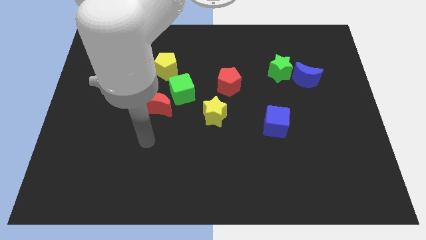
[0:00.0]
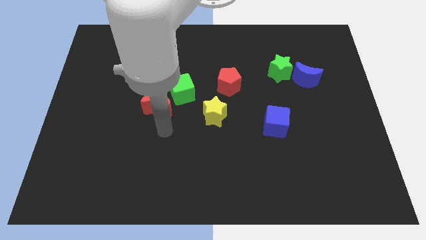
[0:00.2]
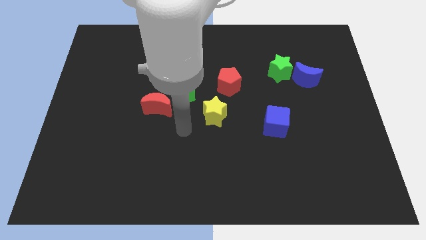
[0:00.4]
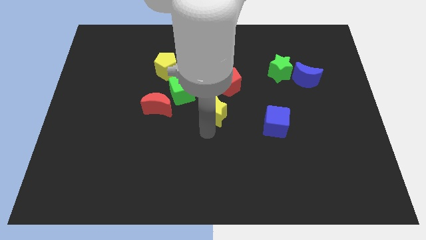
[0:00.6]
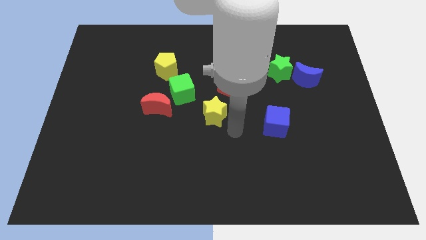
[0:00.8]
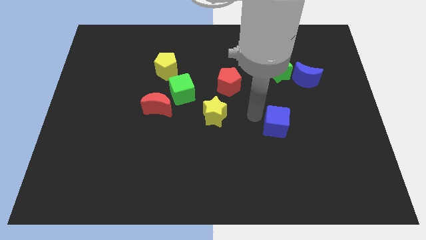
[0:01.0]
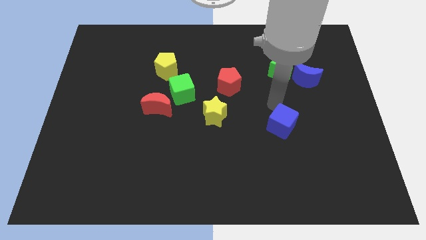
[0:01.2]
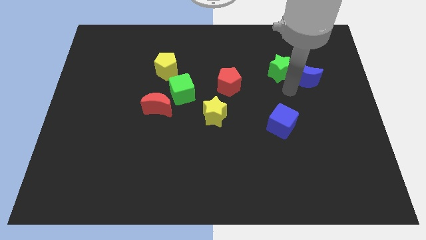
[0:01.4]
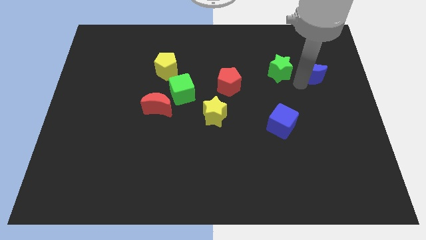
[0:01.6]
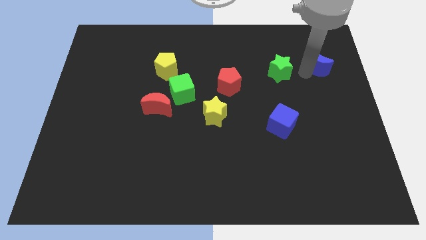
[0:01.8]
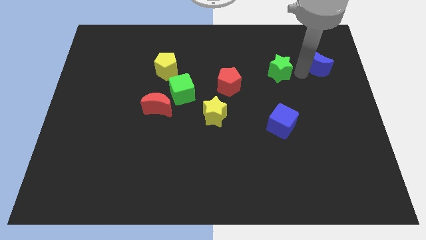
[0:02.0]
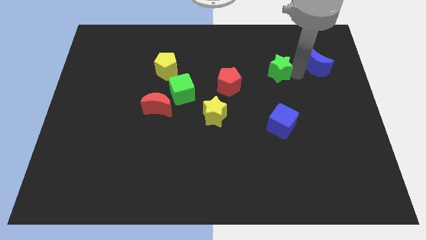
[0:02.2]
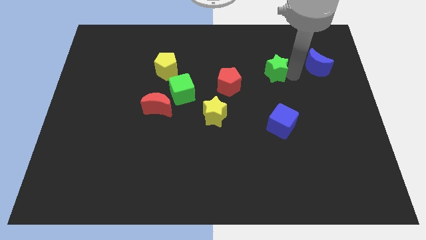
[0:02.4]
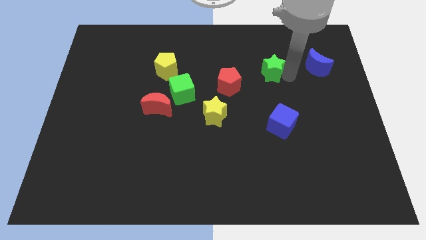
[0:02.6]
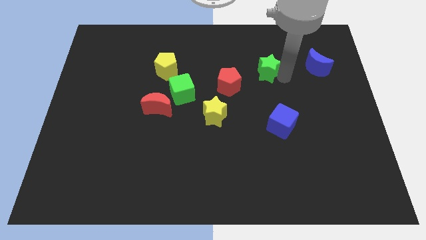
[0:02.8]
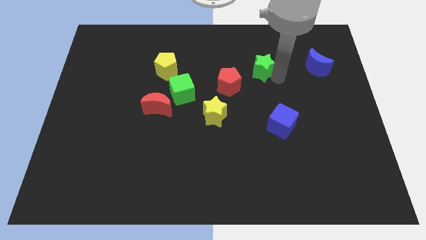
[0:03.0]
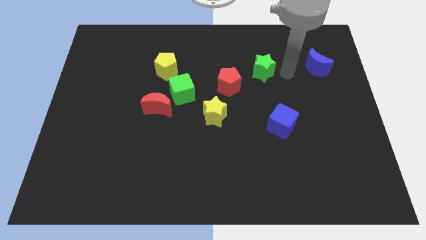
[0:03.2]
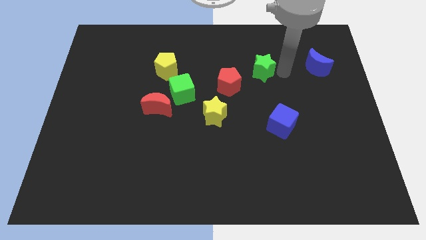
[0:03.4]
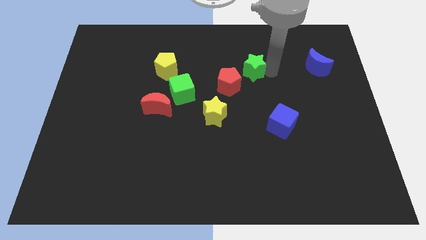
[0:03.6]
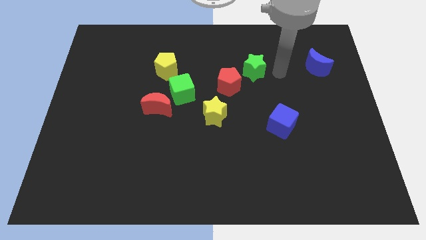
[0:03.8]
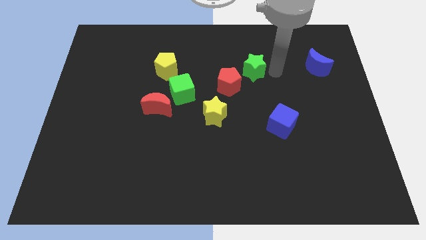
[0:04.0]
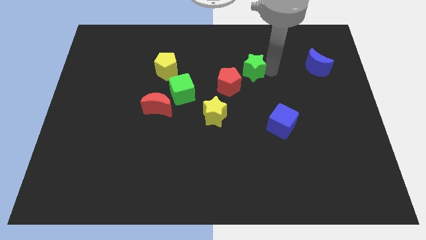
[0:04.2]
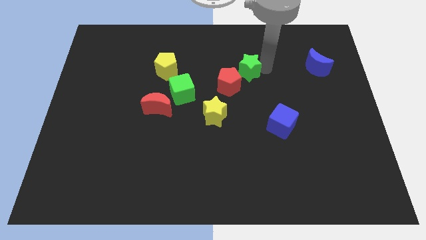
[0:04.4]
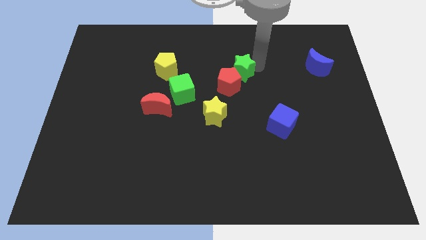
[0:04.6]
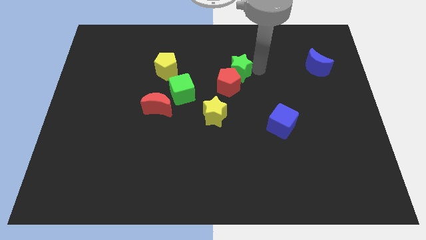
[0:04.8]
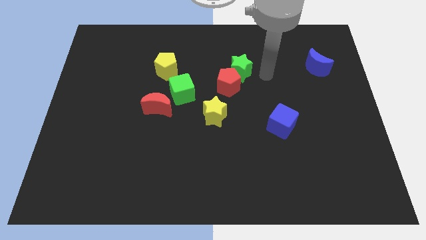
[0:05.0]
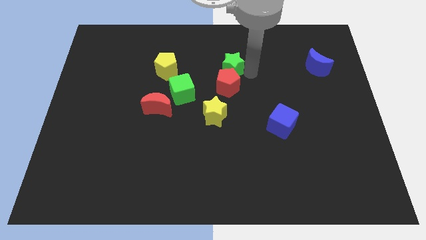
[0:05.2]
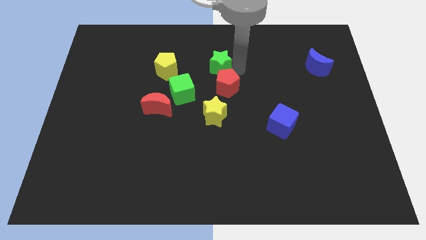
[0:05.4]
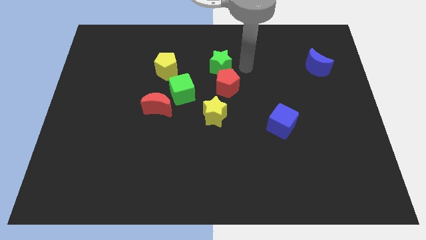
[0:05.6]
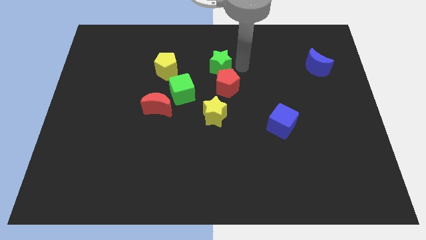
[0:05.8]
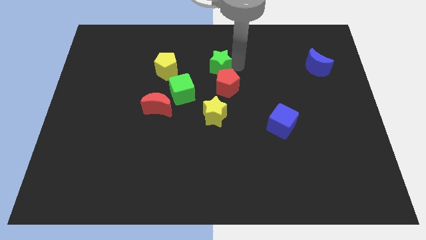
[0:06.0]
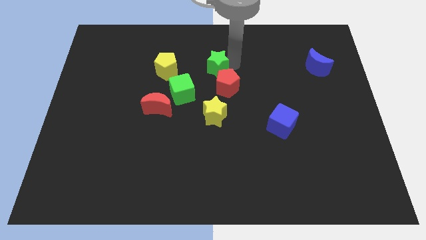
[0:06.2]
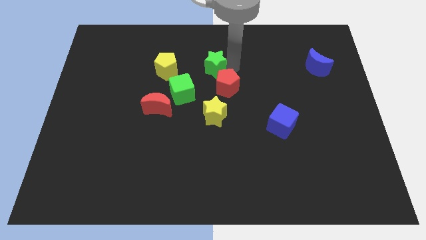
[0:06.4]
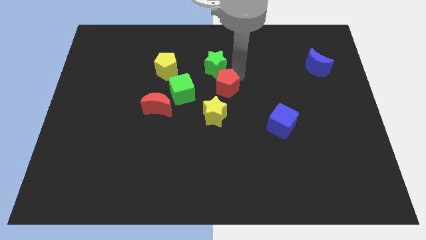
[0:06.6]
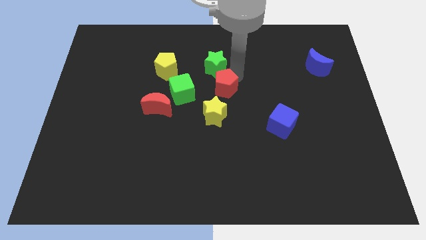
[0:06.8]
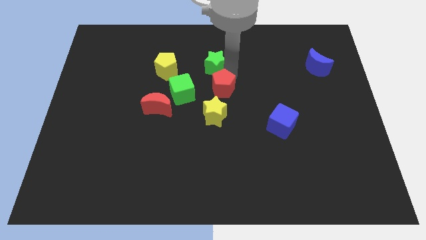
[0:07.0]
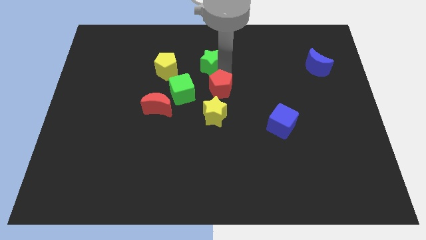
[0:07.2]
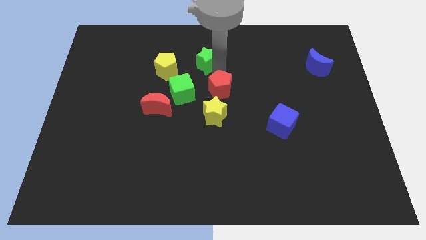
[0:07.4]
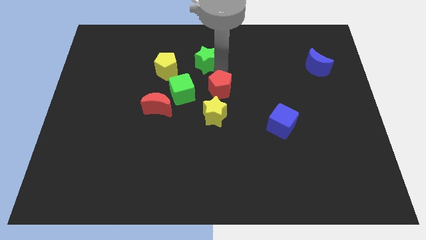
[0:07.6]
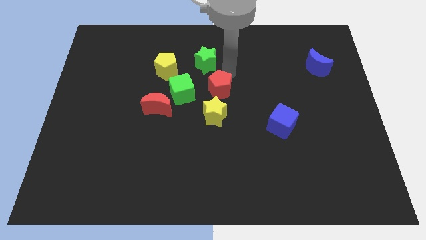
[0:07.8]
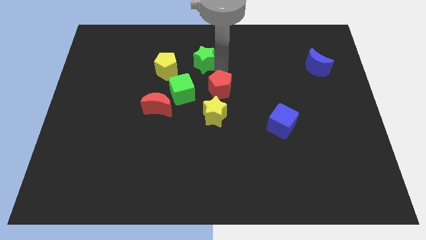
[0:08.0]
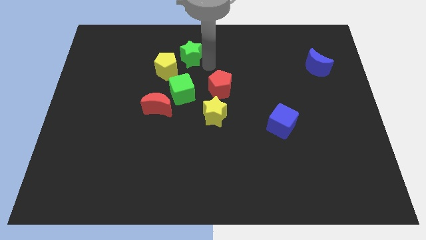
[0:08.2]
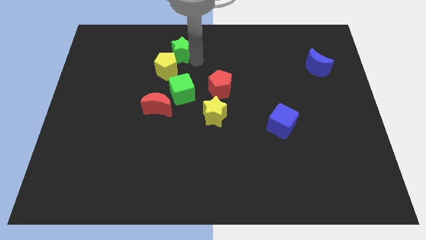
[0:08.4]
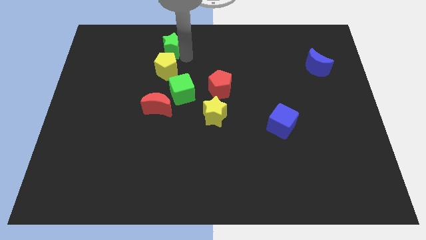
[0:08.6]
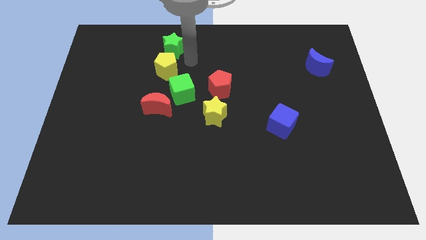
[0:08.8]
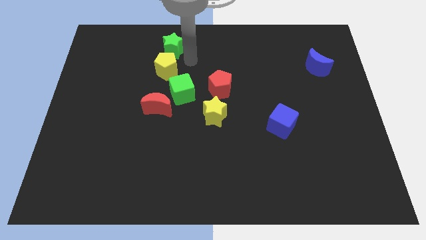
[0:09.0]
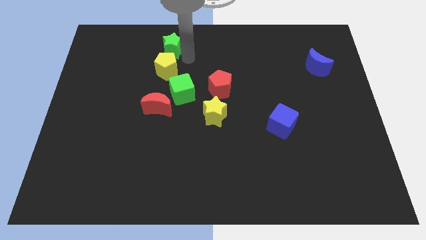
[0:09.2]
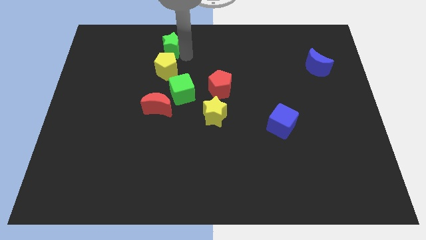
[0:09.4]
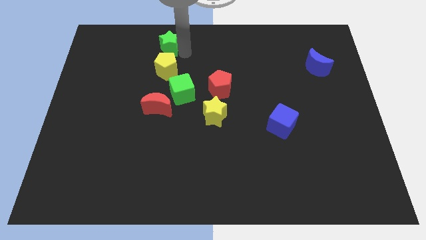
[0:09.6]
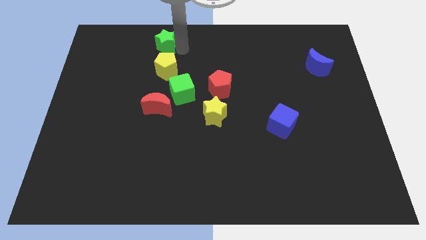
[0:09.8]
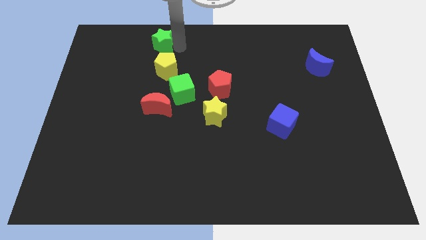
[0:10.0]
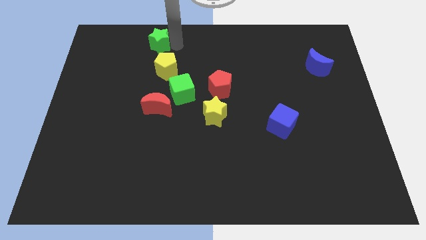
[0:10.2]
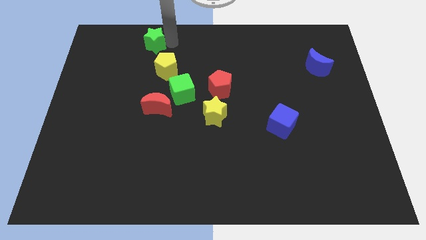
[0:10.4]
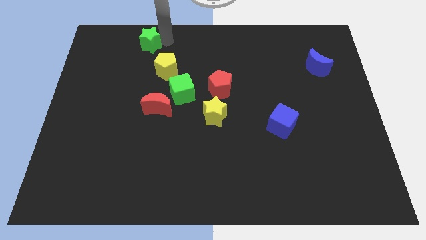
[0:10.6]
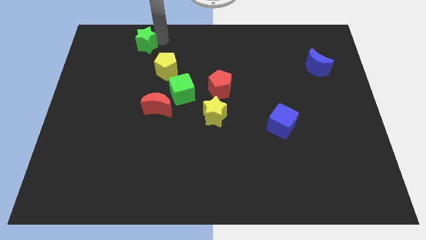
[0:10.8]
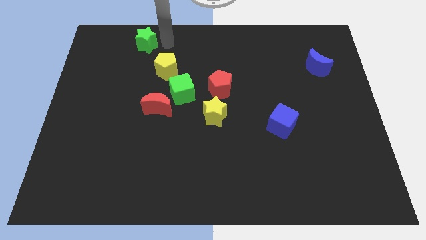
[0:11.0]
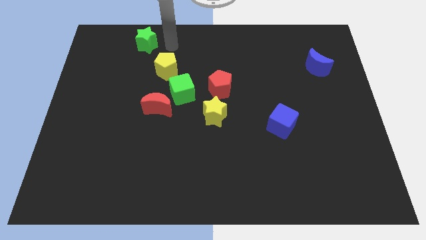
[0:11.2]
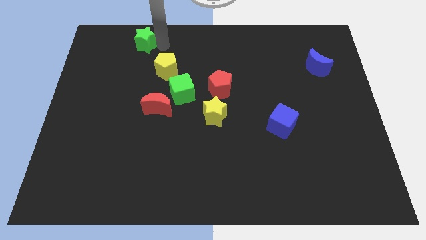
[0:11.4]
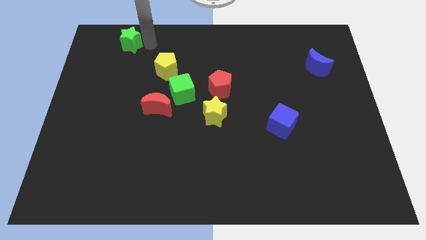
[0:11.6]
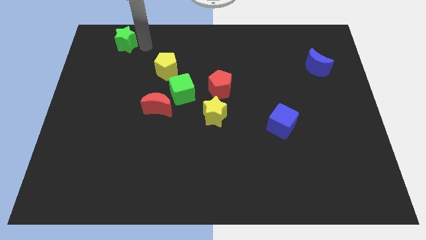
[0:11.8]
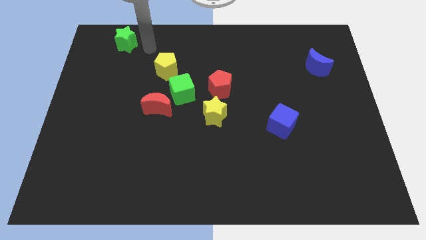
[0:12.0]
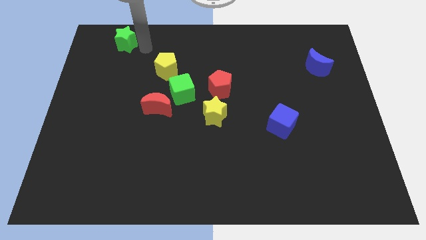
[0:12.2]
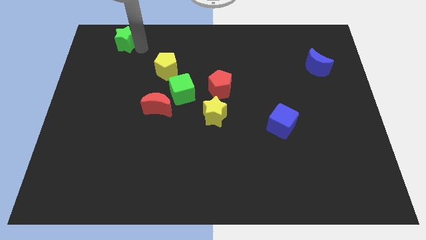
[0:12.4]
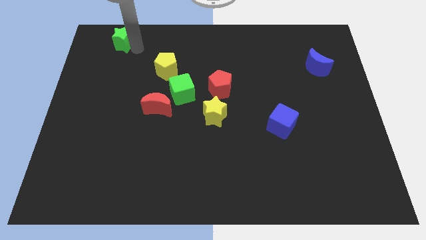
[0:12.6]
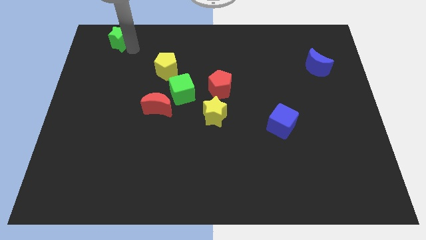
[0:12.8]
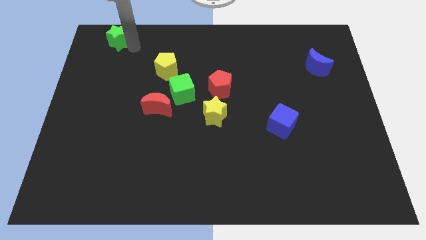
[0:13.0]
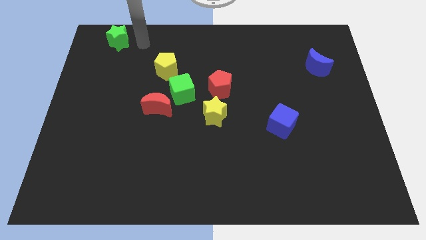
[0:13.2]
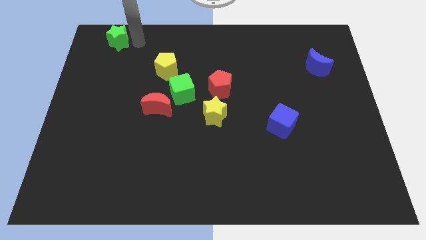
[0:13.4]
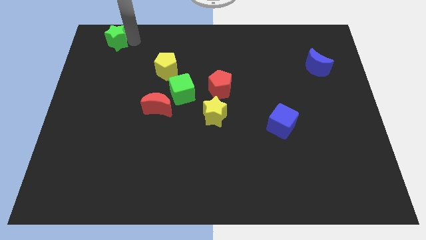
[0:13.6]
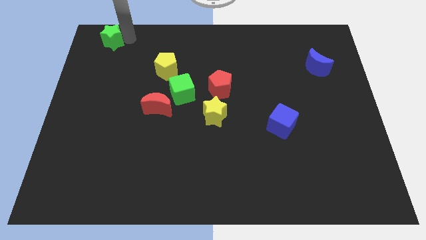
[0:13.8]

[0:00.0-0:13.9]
slide the green star to the top left
